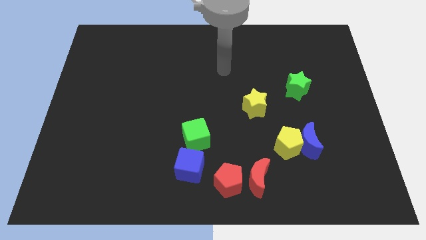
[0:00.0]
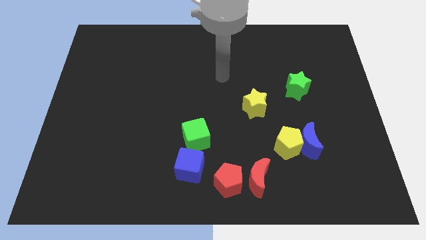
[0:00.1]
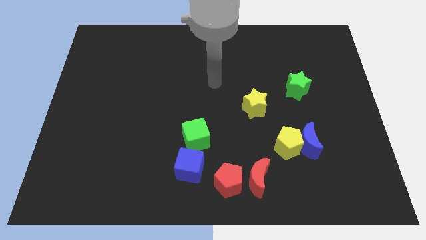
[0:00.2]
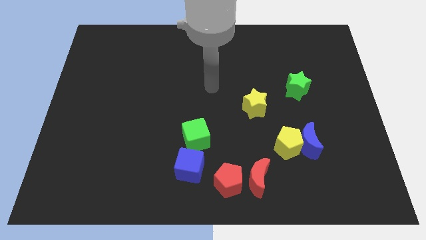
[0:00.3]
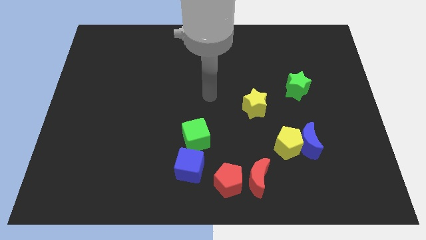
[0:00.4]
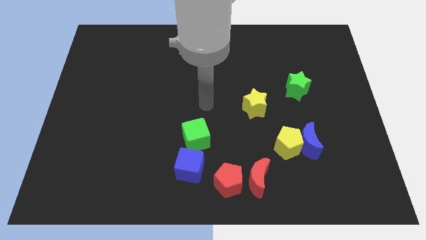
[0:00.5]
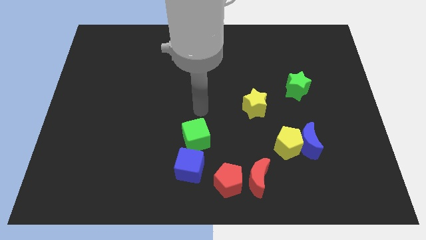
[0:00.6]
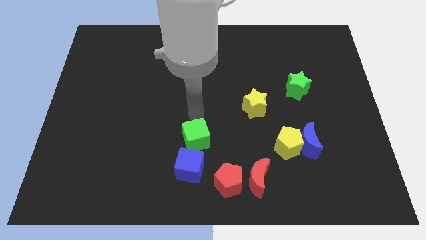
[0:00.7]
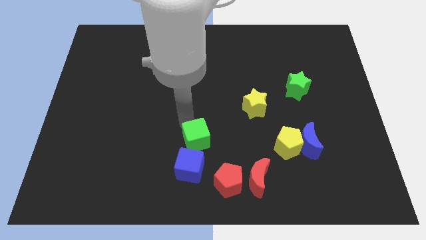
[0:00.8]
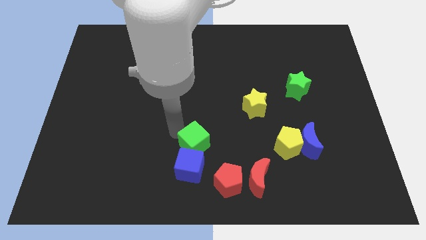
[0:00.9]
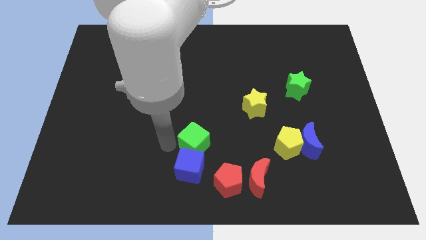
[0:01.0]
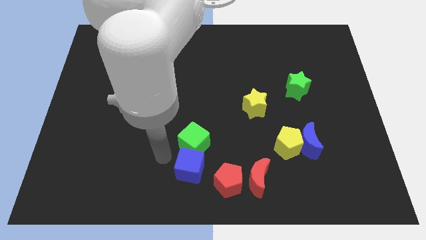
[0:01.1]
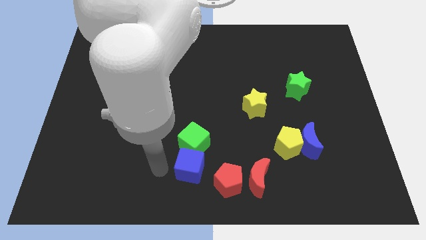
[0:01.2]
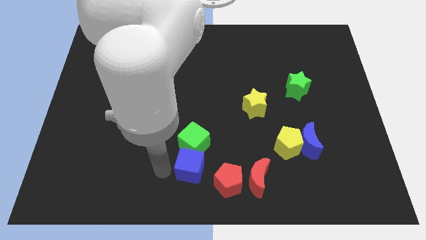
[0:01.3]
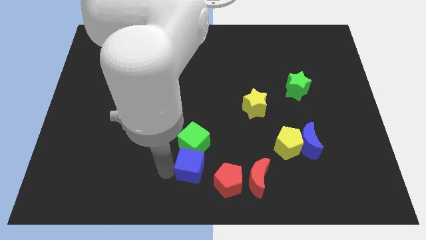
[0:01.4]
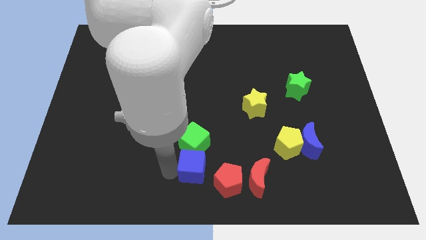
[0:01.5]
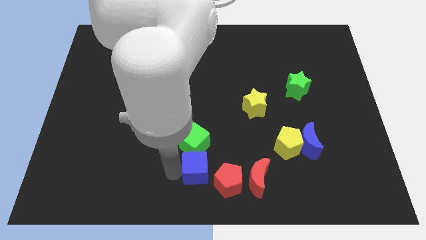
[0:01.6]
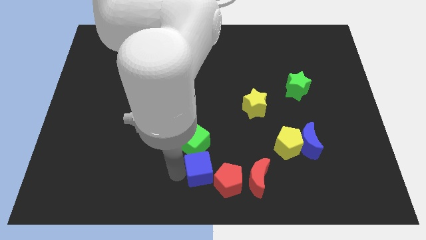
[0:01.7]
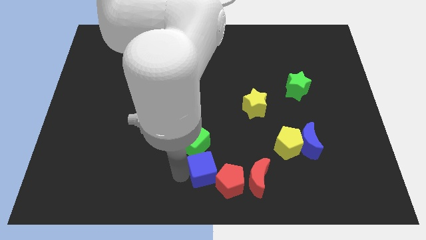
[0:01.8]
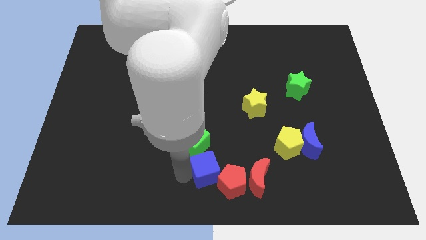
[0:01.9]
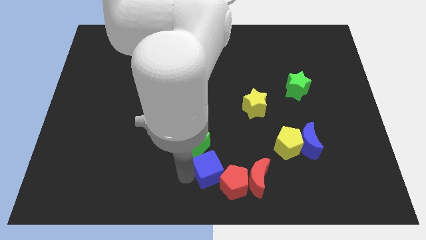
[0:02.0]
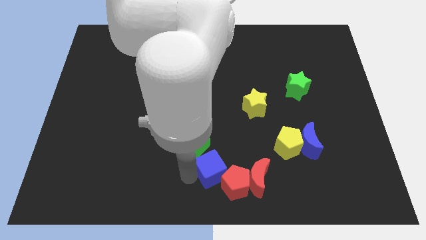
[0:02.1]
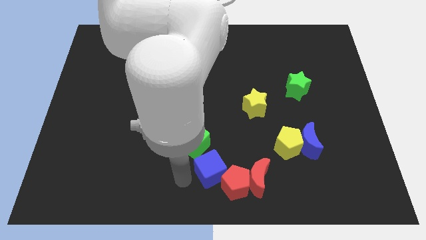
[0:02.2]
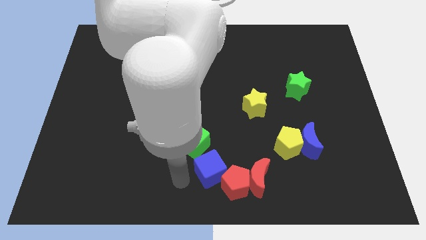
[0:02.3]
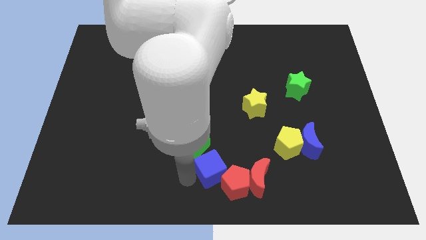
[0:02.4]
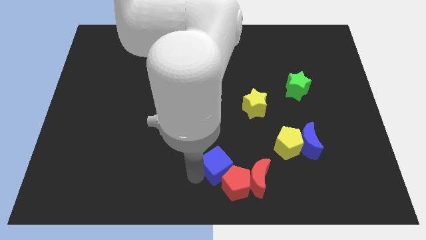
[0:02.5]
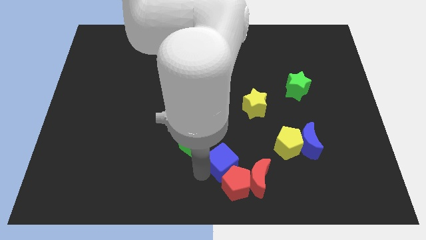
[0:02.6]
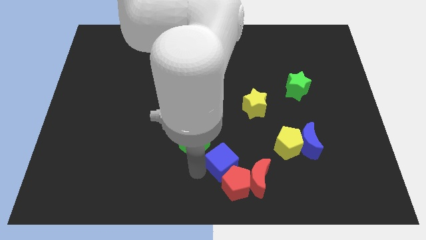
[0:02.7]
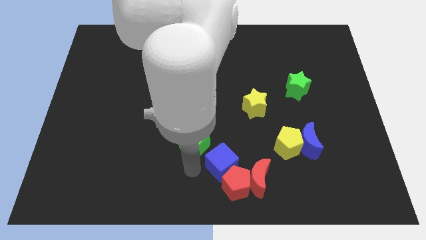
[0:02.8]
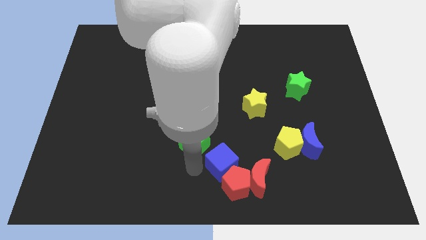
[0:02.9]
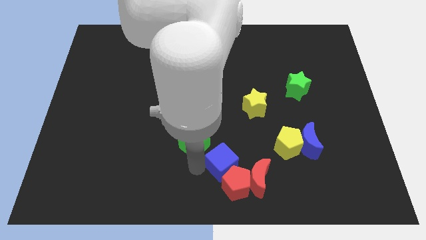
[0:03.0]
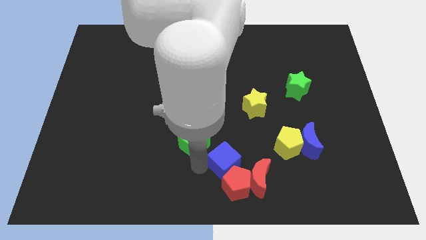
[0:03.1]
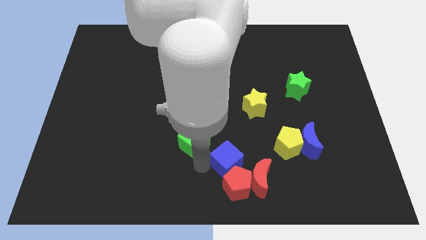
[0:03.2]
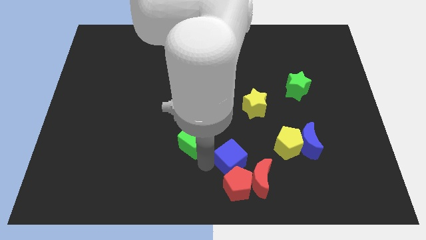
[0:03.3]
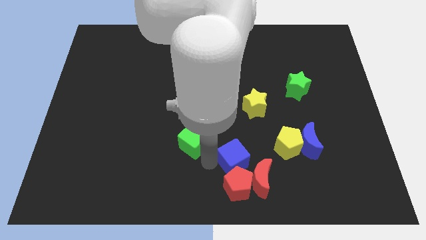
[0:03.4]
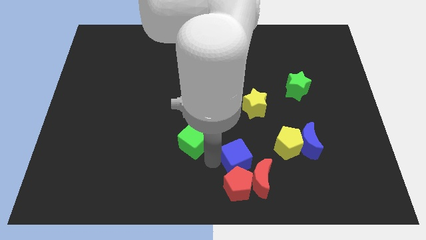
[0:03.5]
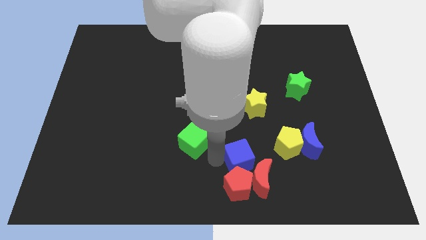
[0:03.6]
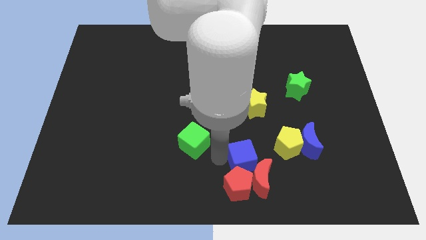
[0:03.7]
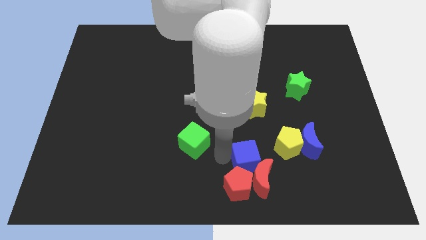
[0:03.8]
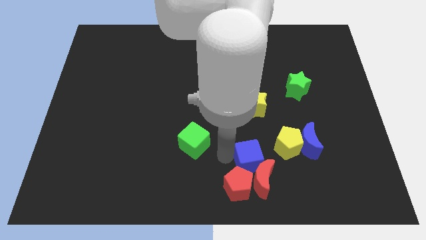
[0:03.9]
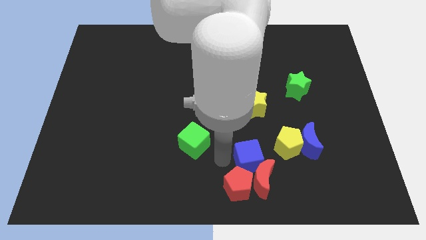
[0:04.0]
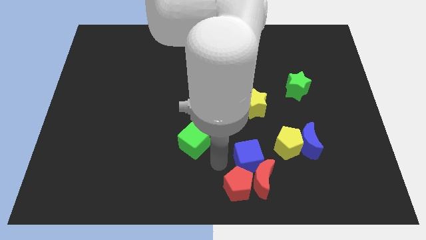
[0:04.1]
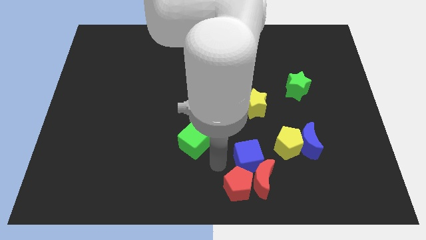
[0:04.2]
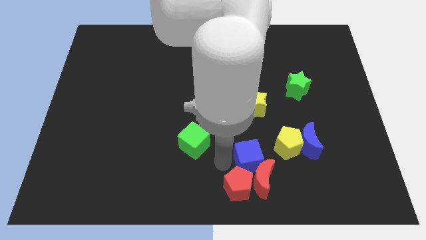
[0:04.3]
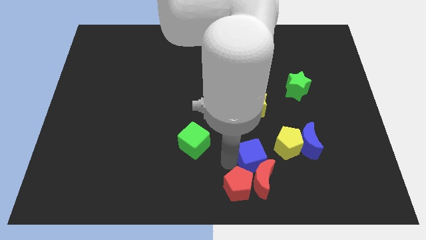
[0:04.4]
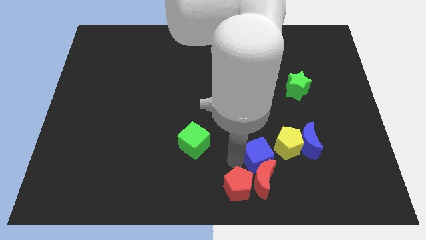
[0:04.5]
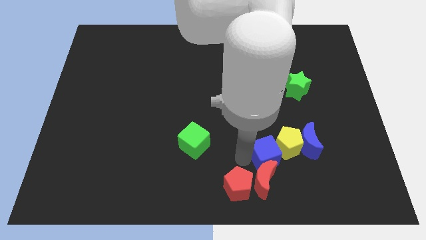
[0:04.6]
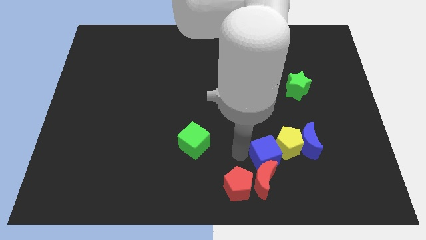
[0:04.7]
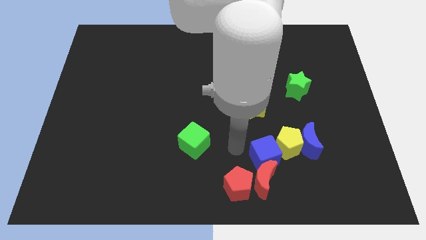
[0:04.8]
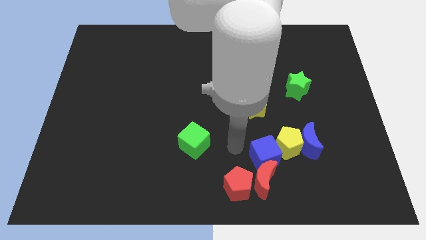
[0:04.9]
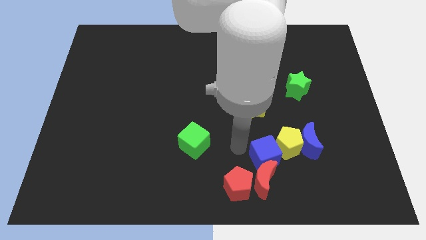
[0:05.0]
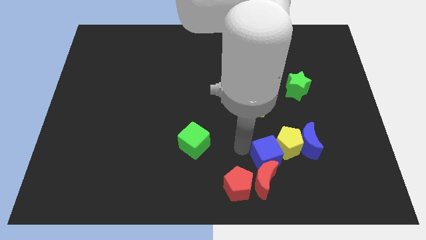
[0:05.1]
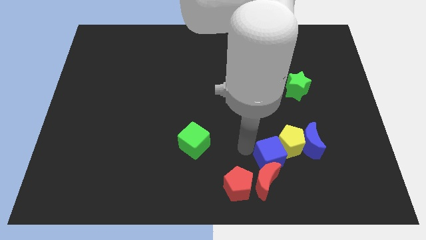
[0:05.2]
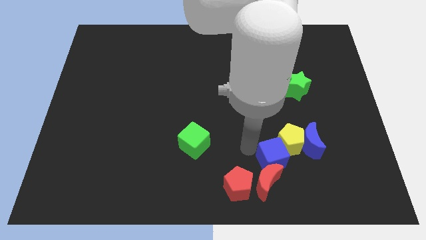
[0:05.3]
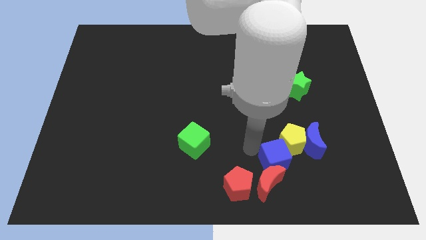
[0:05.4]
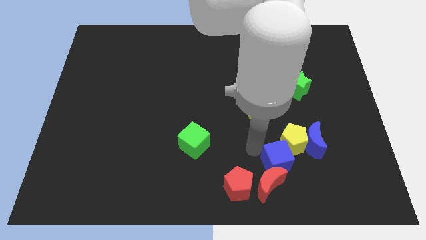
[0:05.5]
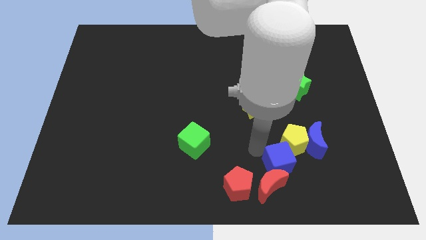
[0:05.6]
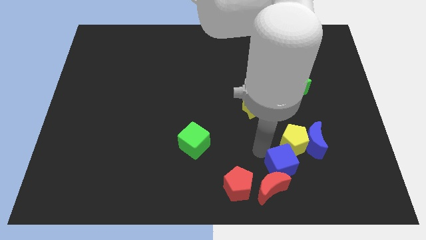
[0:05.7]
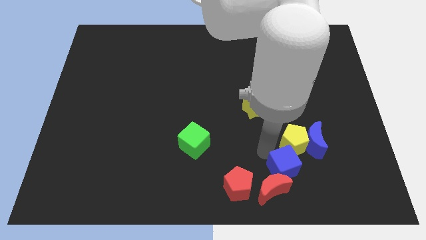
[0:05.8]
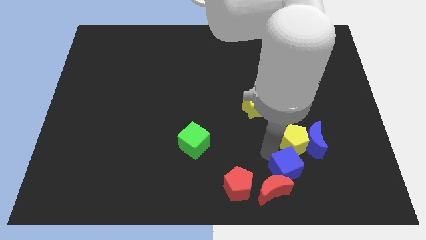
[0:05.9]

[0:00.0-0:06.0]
push the blue cube right

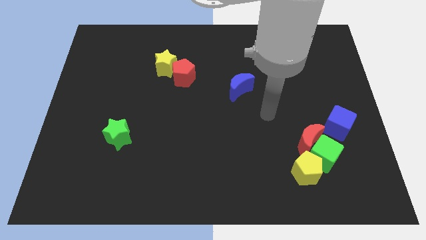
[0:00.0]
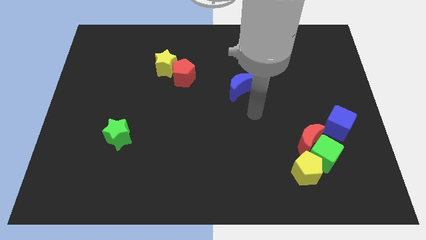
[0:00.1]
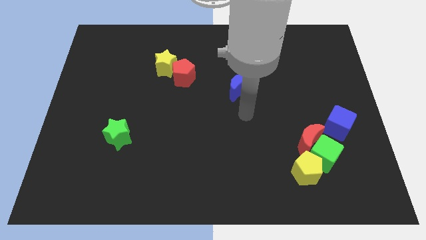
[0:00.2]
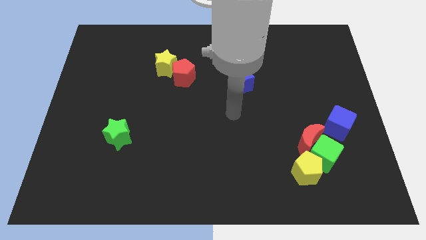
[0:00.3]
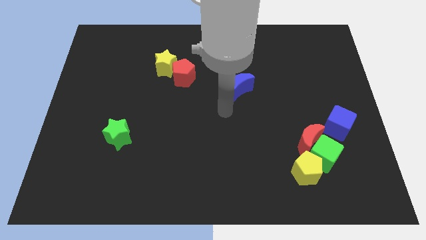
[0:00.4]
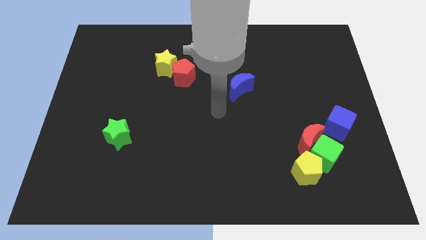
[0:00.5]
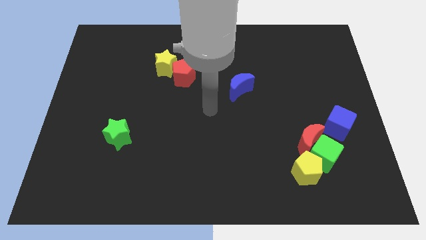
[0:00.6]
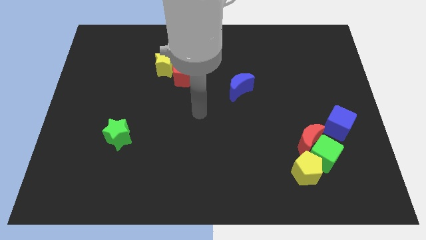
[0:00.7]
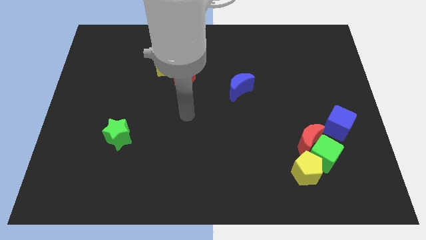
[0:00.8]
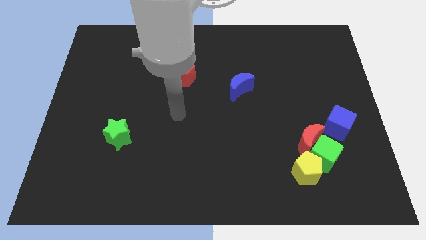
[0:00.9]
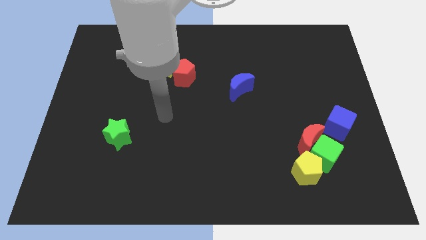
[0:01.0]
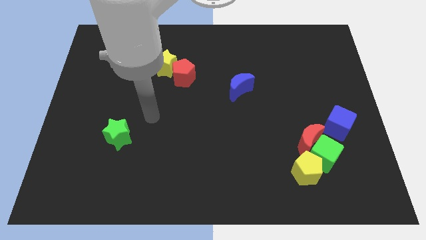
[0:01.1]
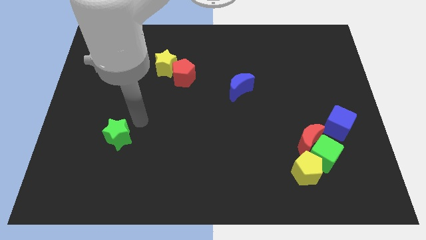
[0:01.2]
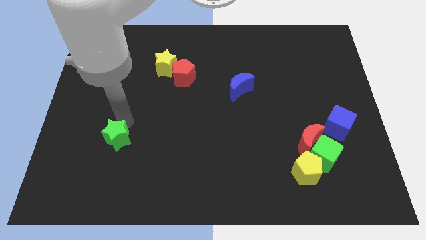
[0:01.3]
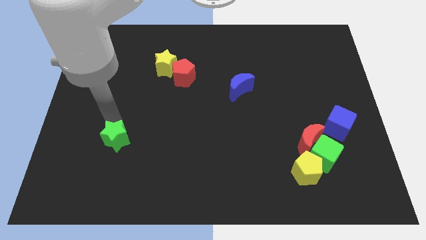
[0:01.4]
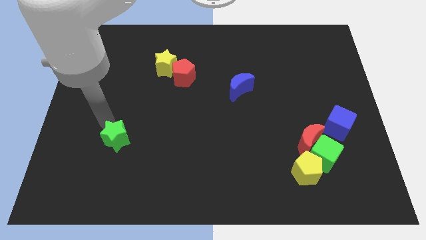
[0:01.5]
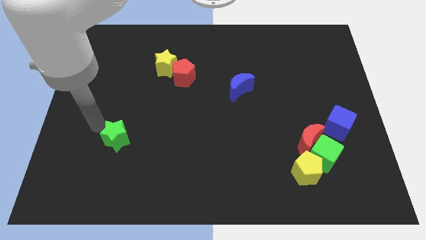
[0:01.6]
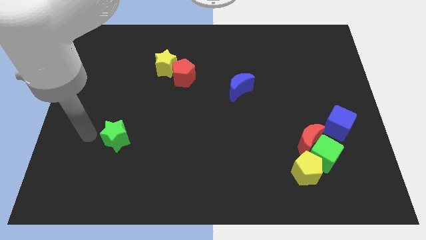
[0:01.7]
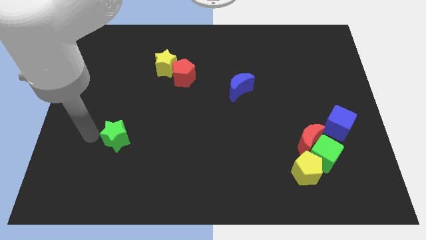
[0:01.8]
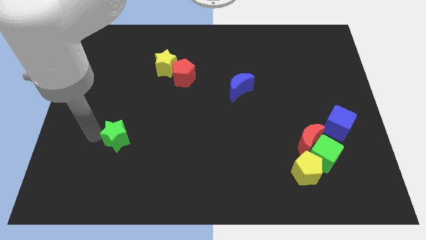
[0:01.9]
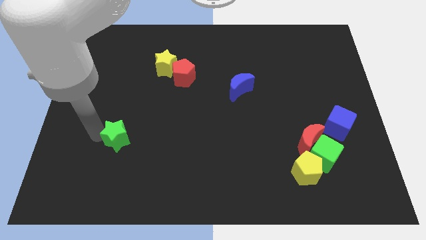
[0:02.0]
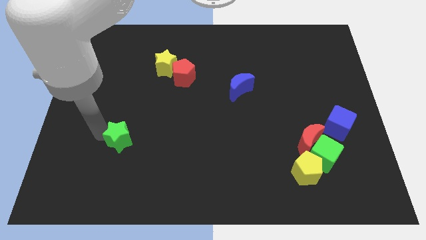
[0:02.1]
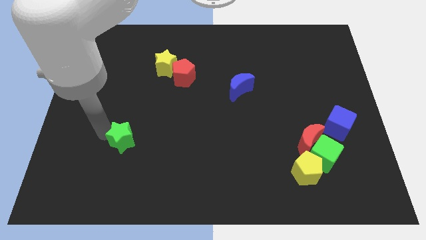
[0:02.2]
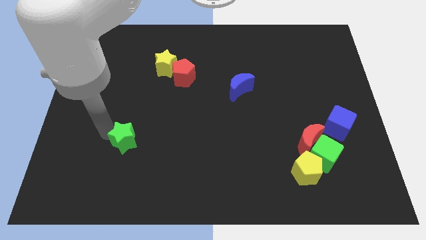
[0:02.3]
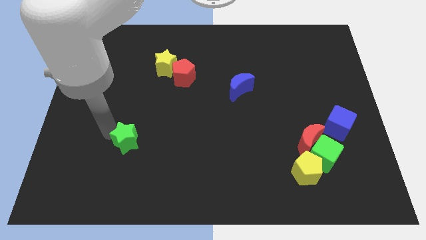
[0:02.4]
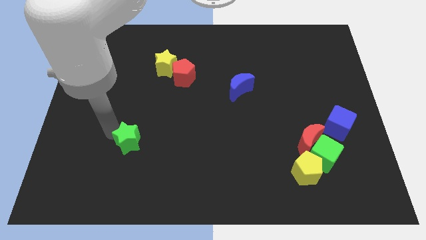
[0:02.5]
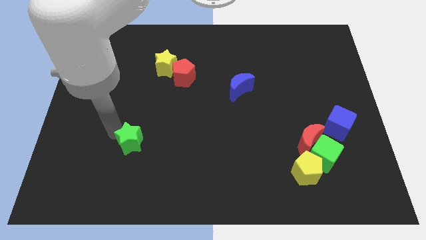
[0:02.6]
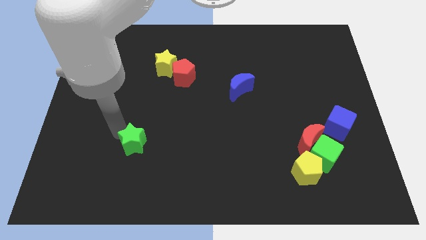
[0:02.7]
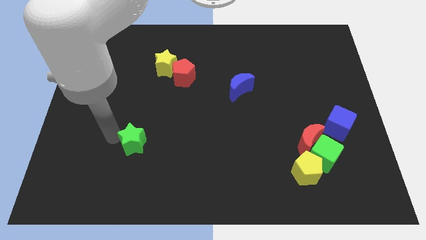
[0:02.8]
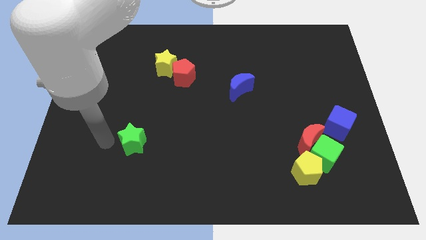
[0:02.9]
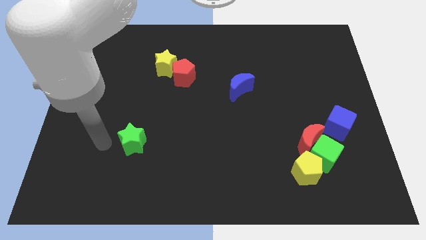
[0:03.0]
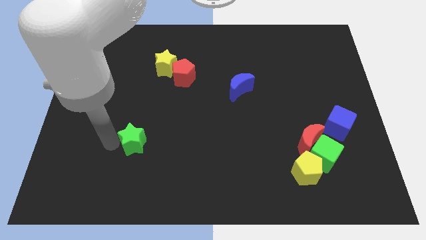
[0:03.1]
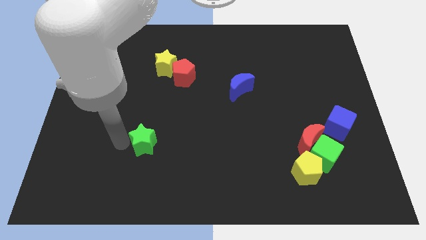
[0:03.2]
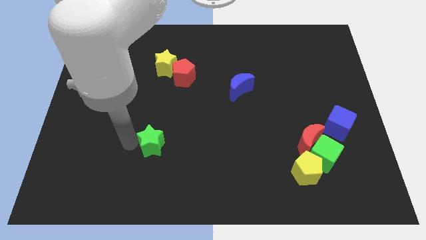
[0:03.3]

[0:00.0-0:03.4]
slightly push the green star to the right
